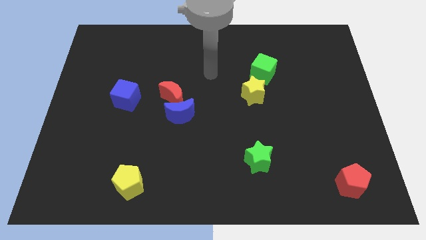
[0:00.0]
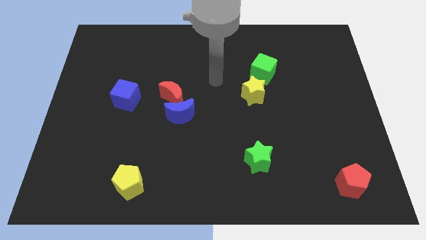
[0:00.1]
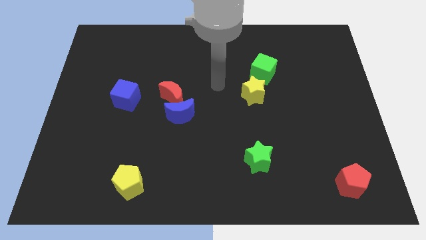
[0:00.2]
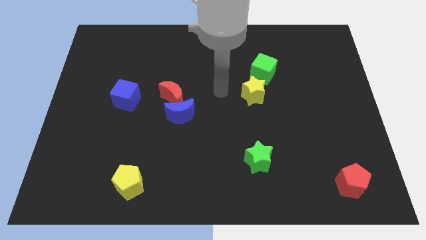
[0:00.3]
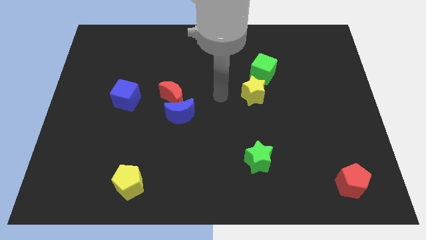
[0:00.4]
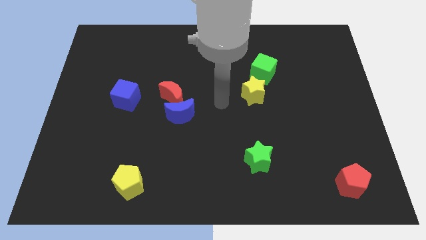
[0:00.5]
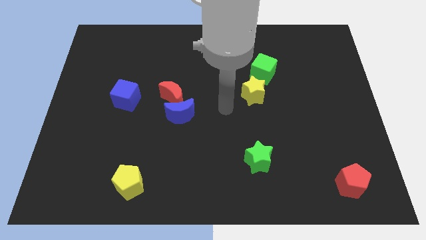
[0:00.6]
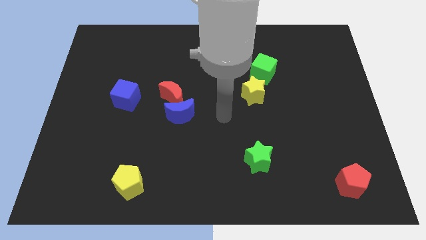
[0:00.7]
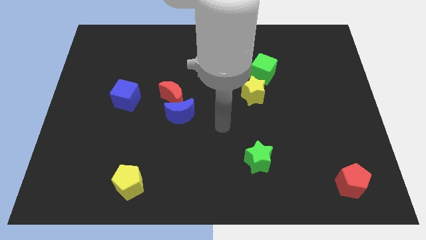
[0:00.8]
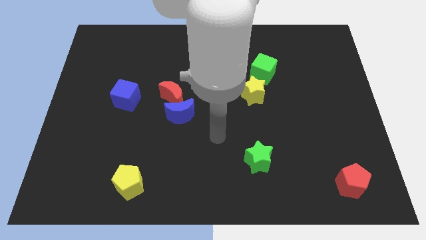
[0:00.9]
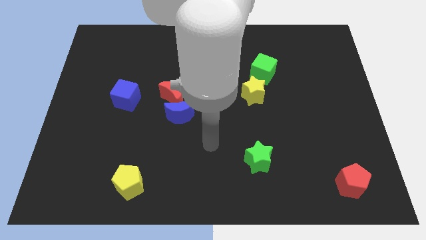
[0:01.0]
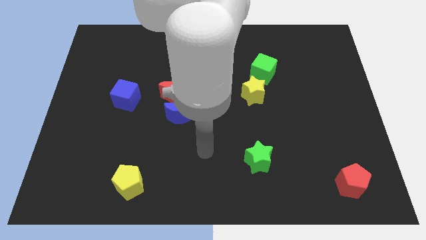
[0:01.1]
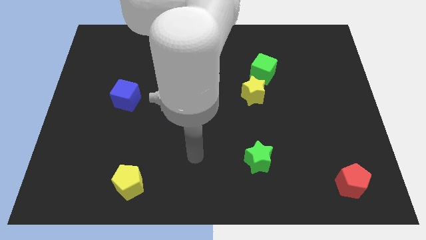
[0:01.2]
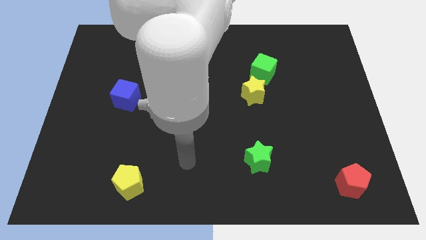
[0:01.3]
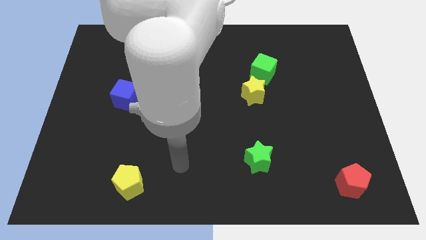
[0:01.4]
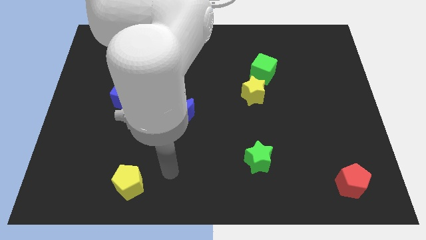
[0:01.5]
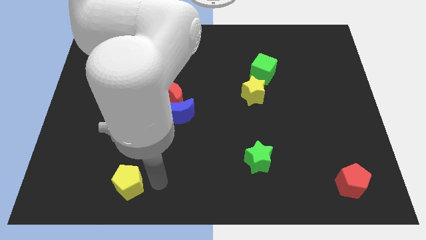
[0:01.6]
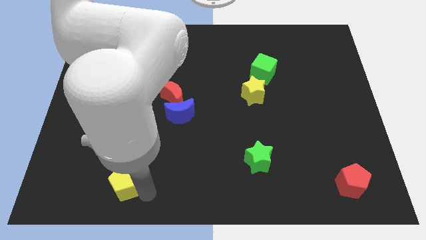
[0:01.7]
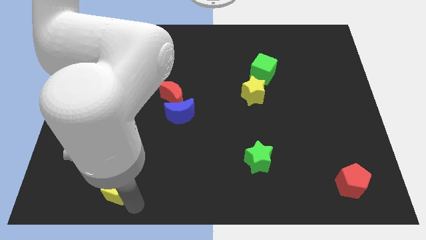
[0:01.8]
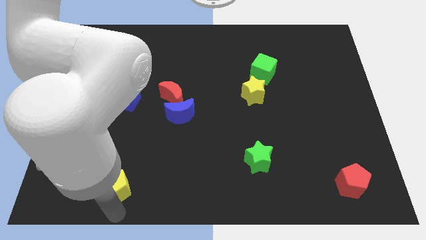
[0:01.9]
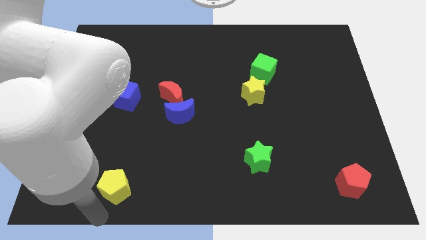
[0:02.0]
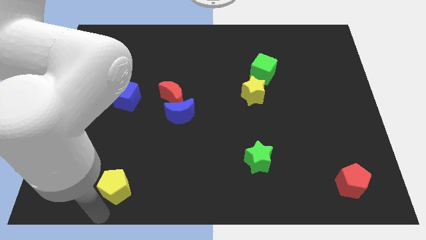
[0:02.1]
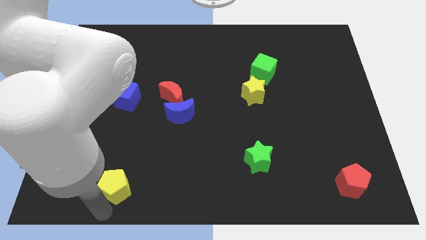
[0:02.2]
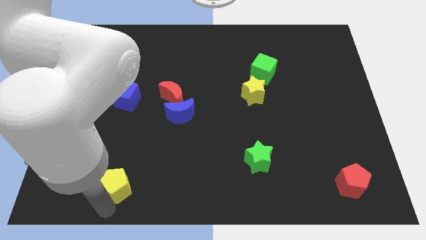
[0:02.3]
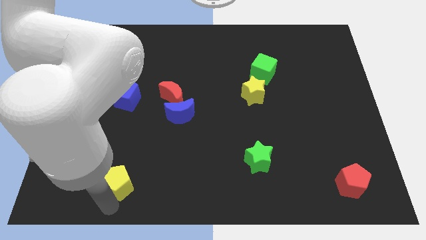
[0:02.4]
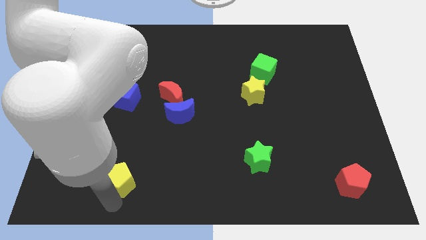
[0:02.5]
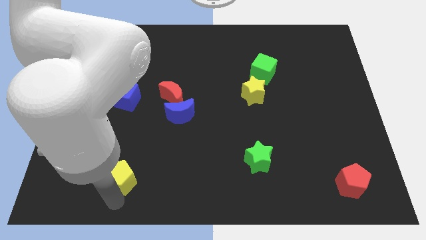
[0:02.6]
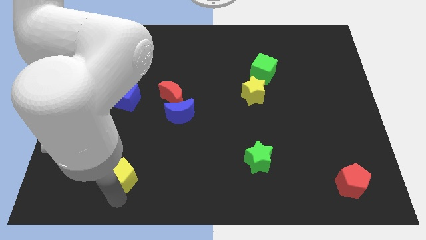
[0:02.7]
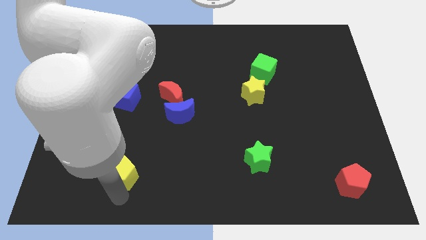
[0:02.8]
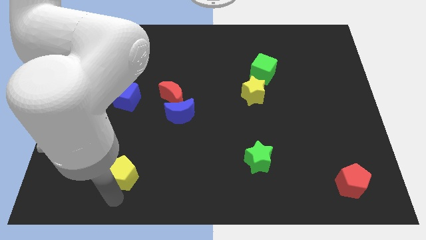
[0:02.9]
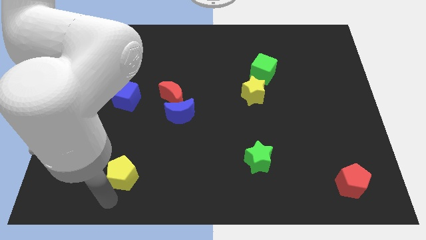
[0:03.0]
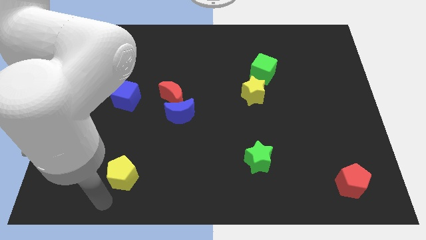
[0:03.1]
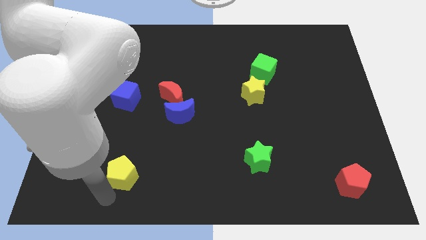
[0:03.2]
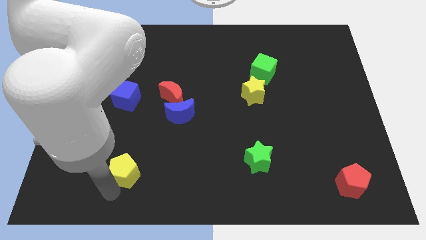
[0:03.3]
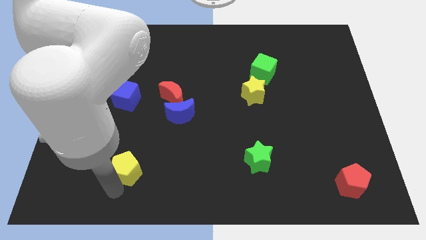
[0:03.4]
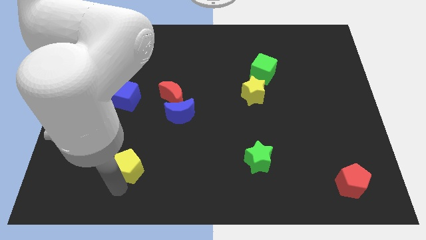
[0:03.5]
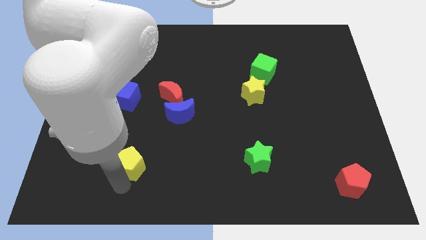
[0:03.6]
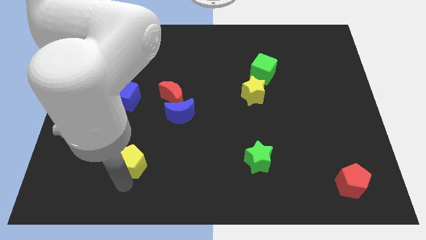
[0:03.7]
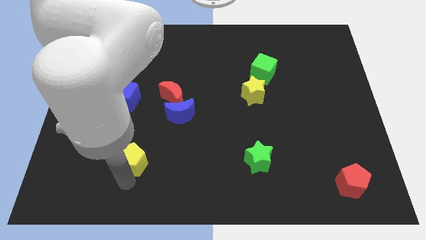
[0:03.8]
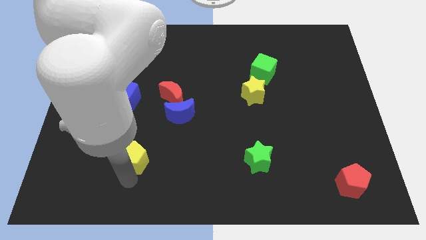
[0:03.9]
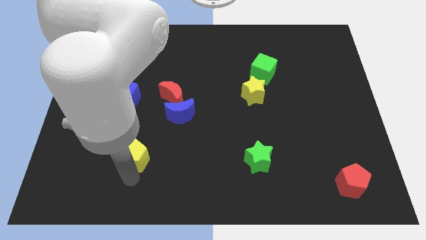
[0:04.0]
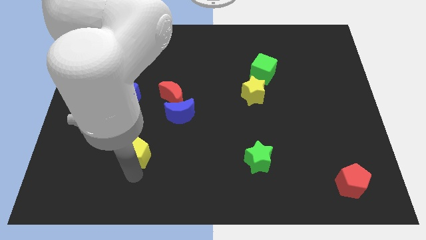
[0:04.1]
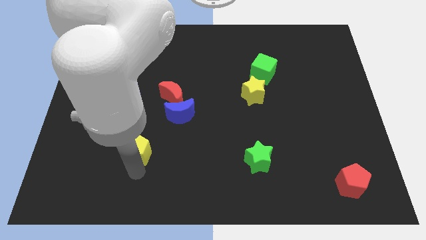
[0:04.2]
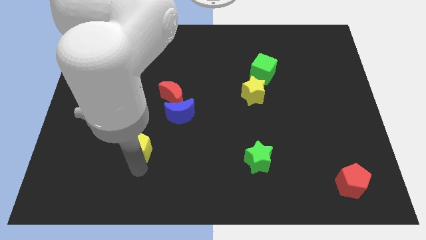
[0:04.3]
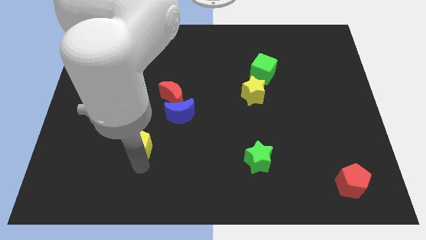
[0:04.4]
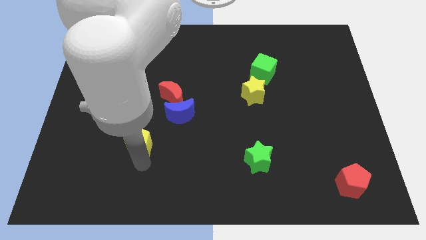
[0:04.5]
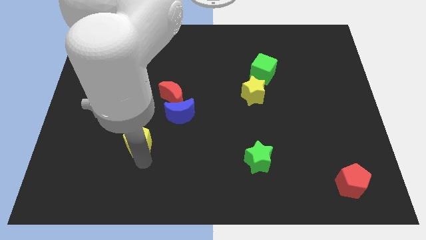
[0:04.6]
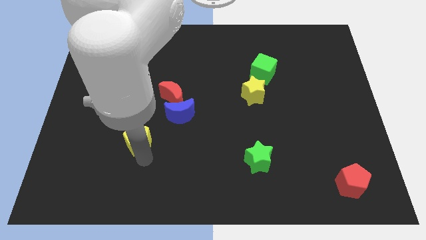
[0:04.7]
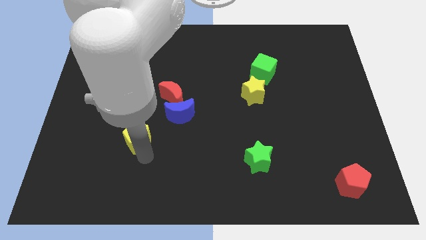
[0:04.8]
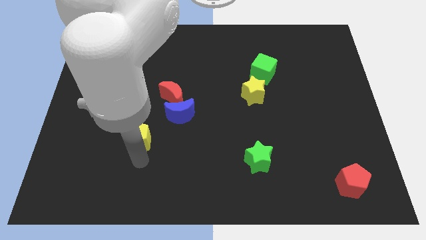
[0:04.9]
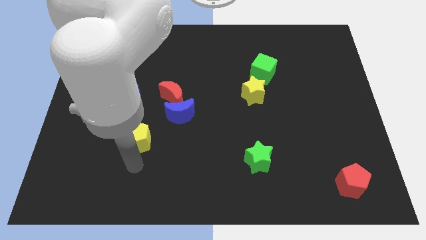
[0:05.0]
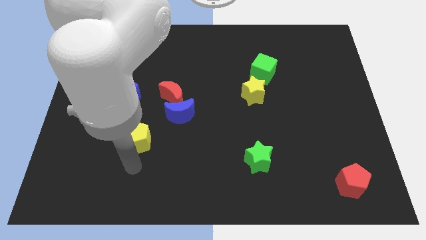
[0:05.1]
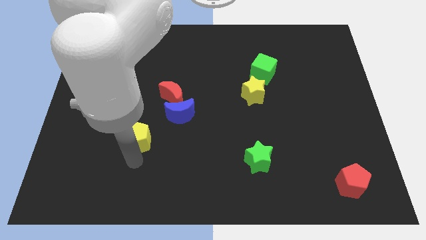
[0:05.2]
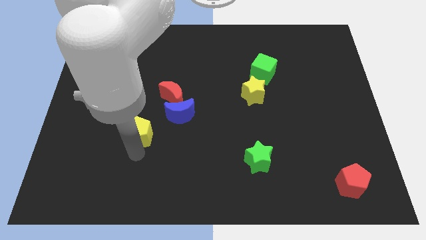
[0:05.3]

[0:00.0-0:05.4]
slide the yellow pentagon to the bottom right side of the blue cube

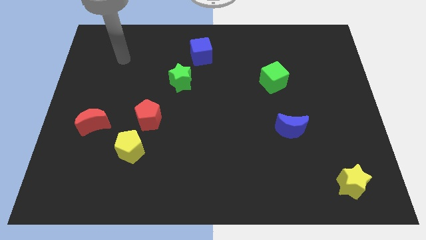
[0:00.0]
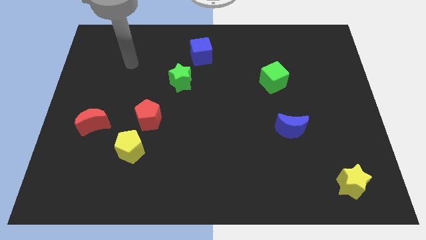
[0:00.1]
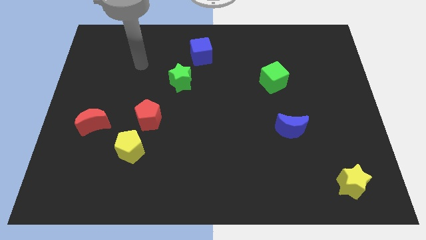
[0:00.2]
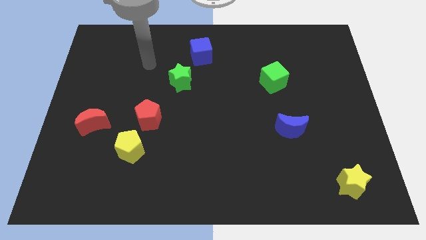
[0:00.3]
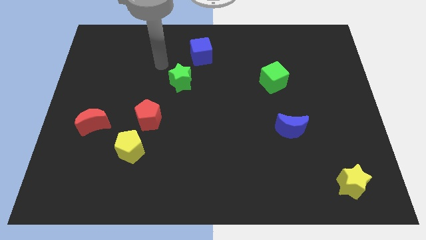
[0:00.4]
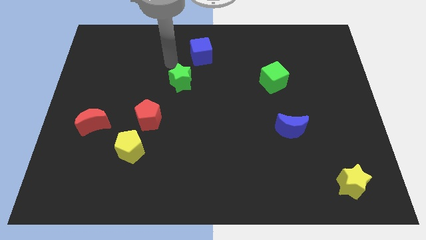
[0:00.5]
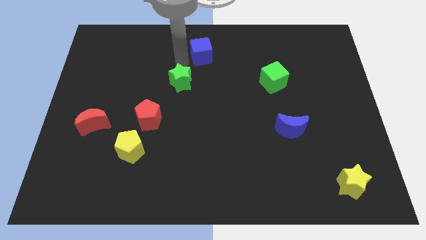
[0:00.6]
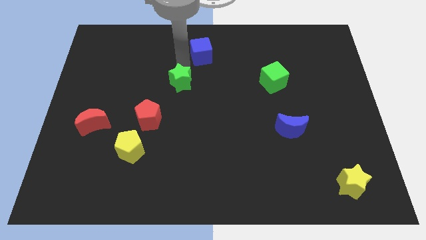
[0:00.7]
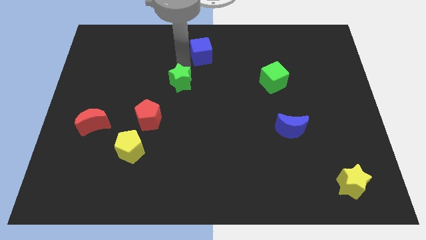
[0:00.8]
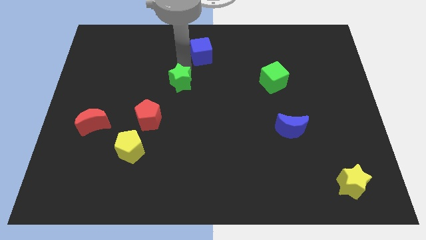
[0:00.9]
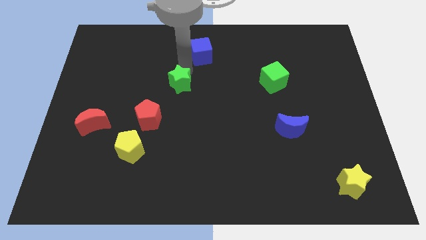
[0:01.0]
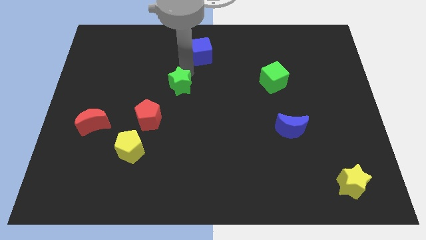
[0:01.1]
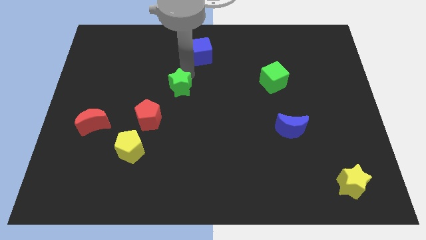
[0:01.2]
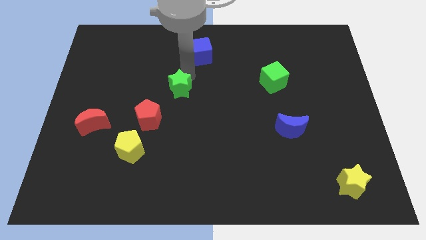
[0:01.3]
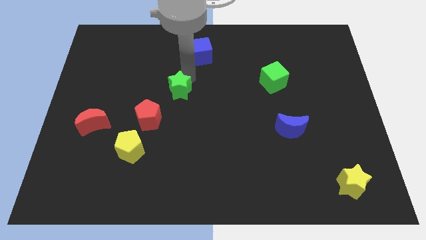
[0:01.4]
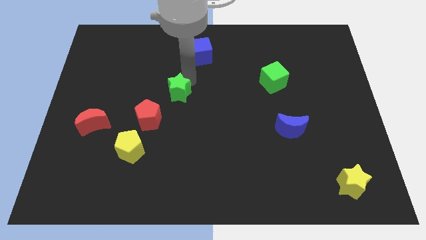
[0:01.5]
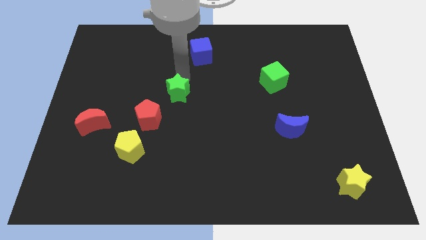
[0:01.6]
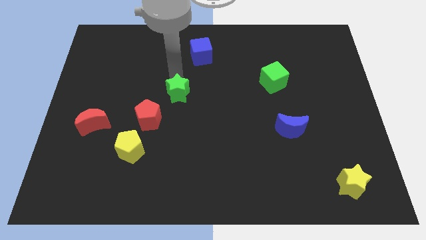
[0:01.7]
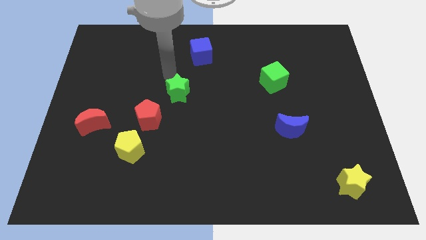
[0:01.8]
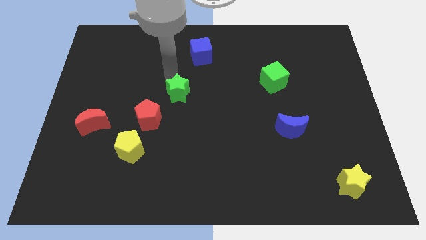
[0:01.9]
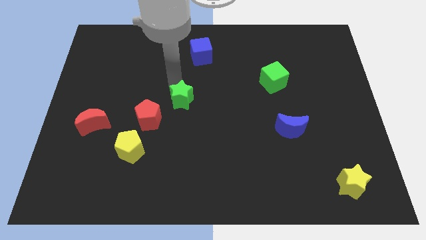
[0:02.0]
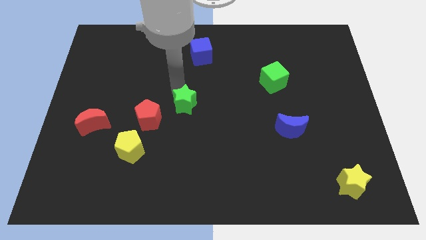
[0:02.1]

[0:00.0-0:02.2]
slide the green star right of the red pentagon
